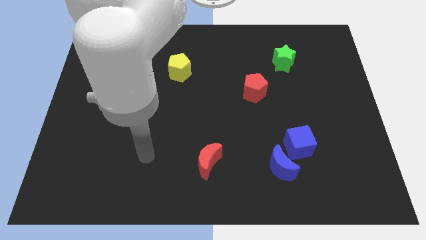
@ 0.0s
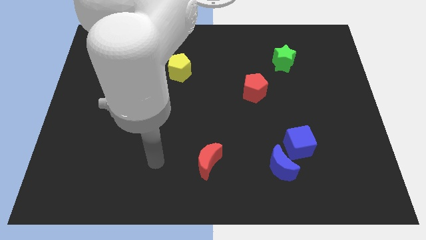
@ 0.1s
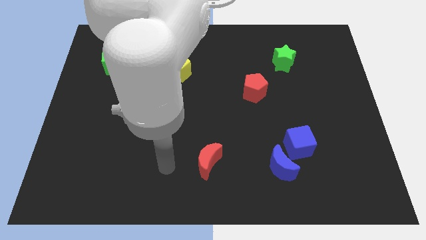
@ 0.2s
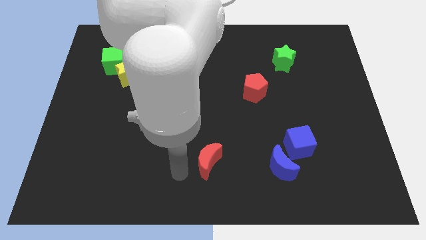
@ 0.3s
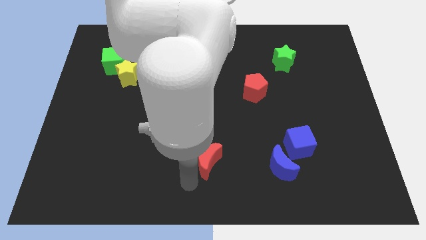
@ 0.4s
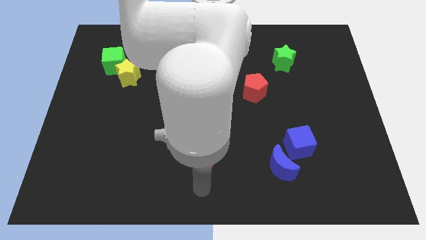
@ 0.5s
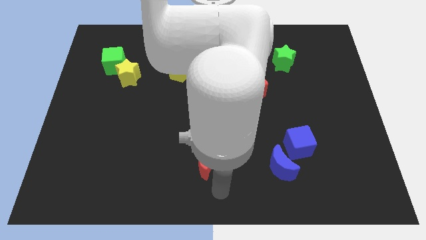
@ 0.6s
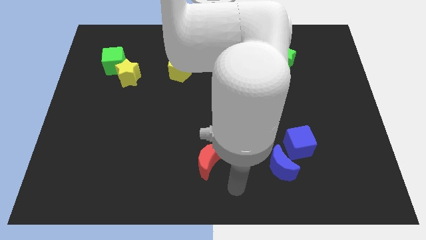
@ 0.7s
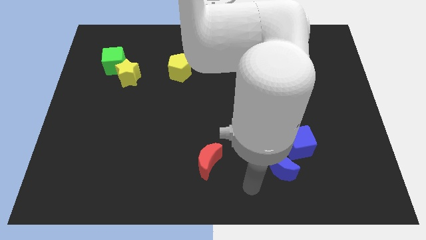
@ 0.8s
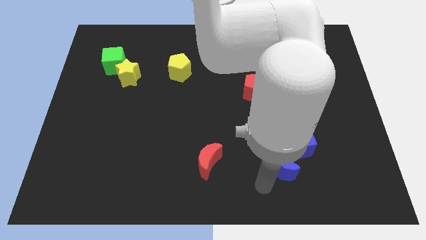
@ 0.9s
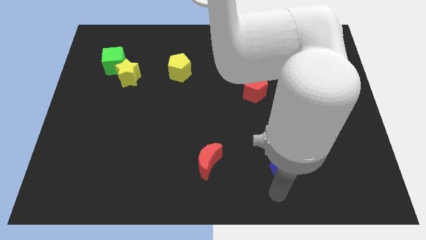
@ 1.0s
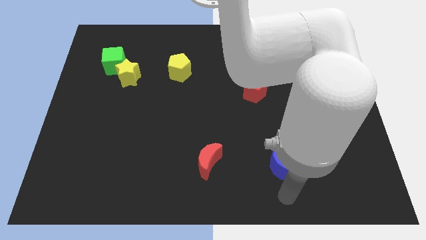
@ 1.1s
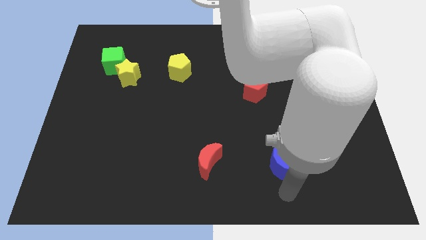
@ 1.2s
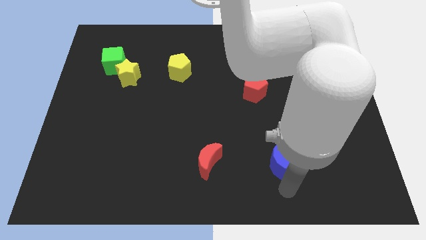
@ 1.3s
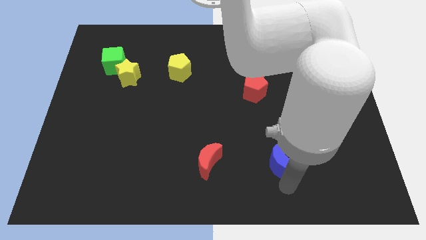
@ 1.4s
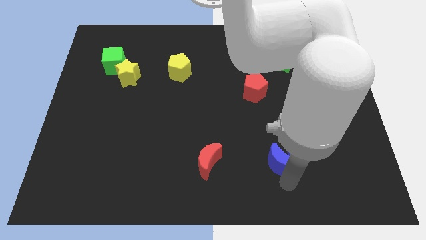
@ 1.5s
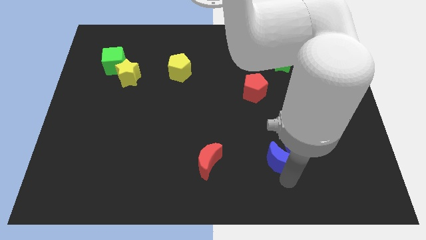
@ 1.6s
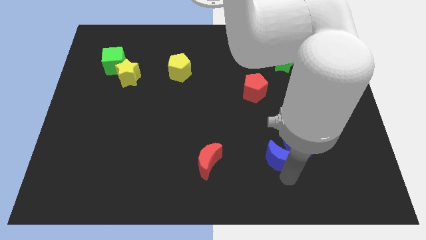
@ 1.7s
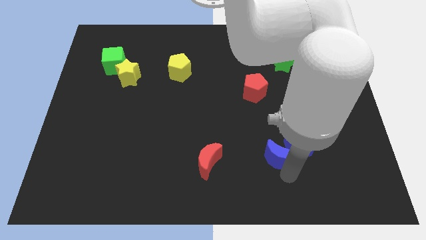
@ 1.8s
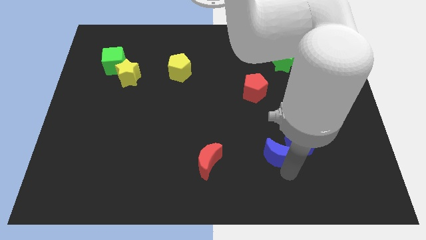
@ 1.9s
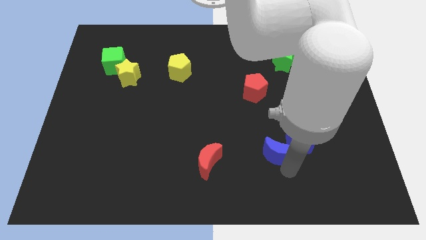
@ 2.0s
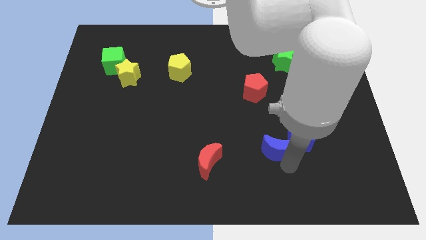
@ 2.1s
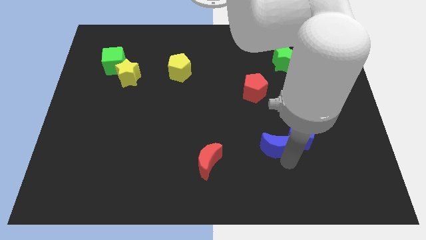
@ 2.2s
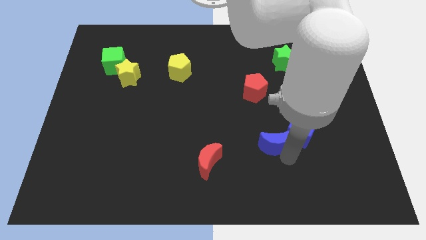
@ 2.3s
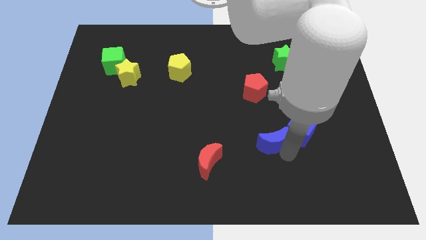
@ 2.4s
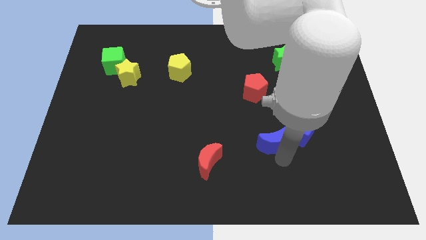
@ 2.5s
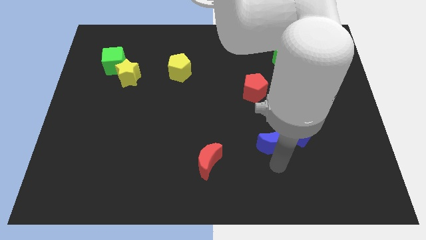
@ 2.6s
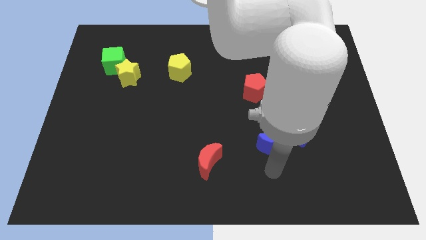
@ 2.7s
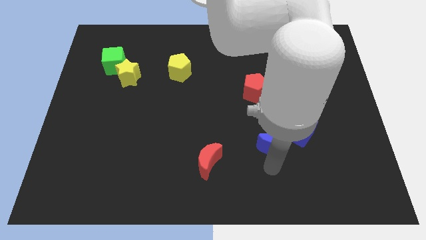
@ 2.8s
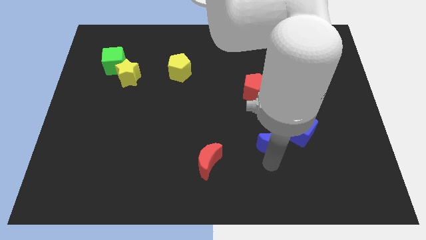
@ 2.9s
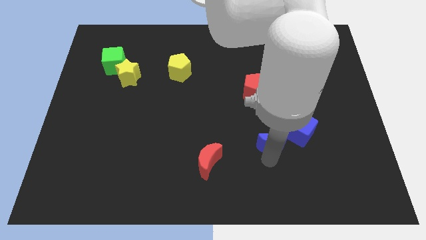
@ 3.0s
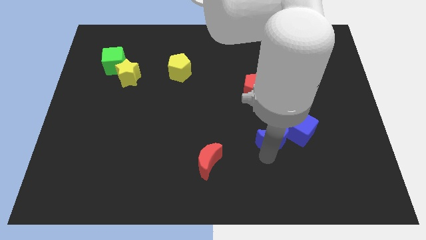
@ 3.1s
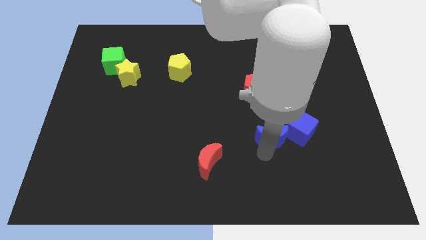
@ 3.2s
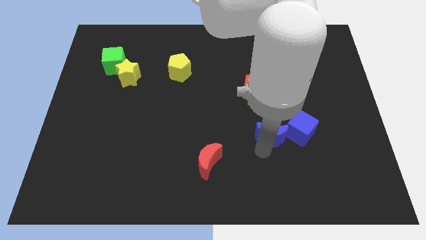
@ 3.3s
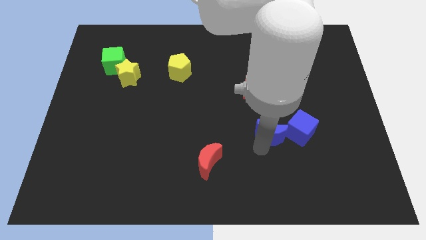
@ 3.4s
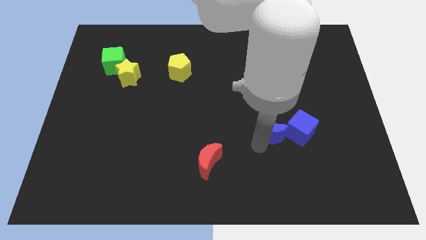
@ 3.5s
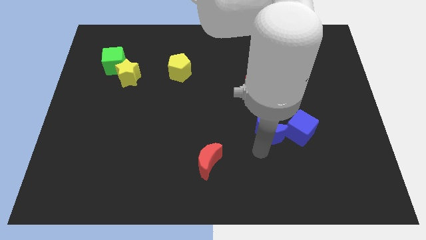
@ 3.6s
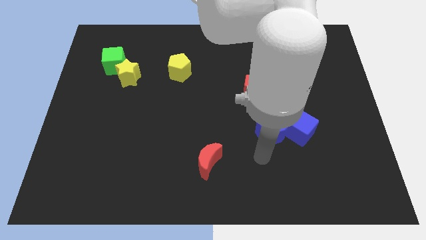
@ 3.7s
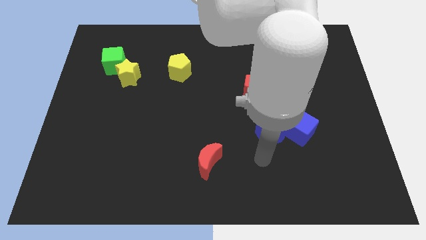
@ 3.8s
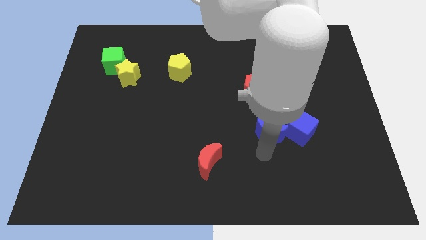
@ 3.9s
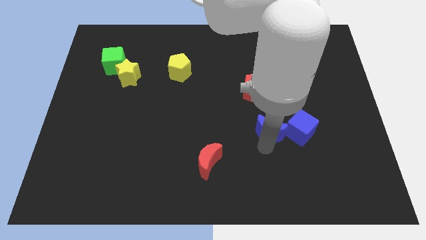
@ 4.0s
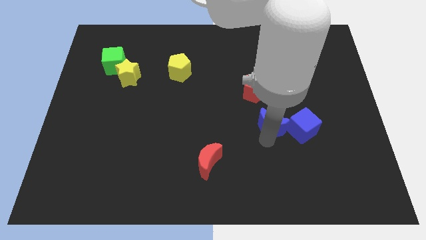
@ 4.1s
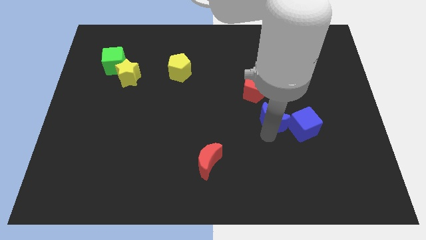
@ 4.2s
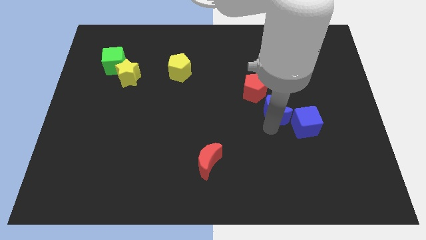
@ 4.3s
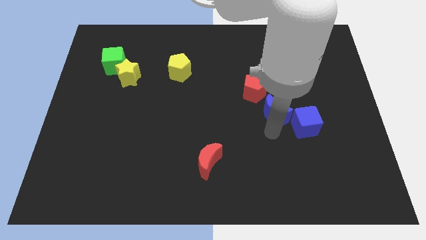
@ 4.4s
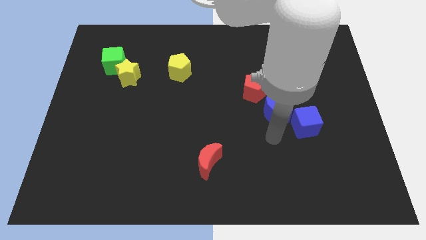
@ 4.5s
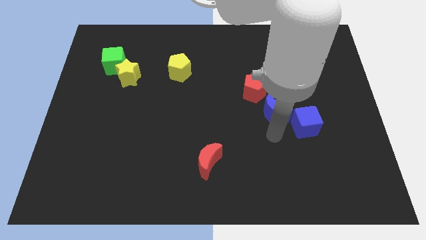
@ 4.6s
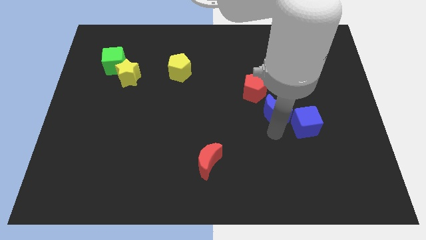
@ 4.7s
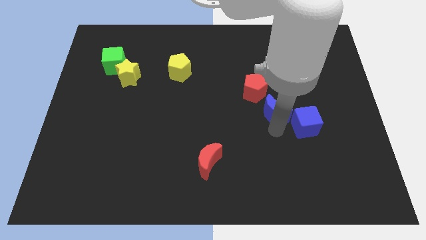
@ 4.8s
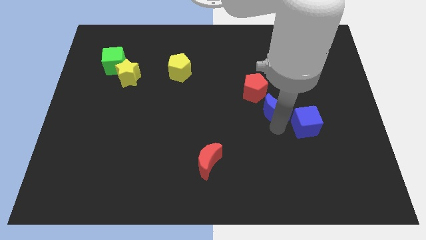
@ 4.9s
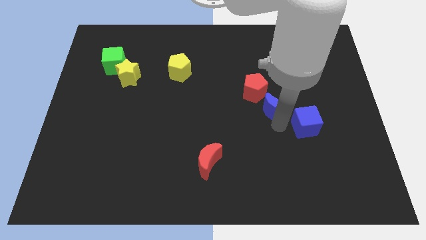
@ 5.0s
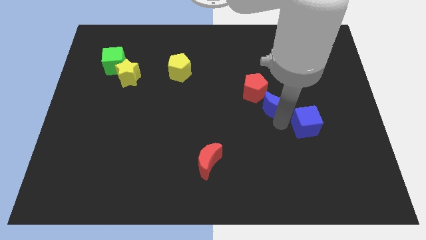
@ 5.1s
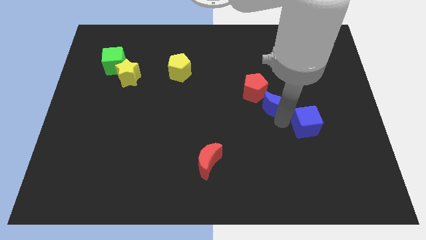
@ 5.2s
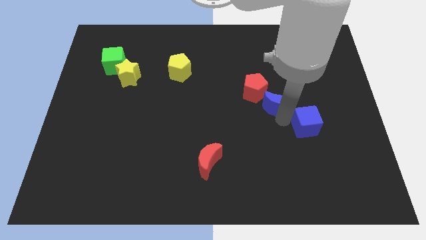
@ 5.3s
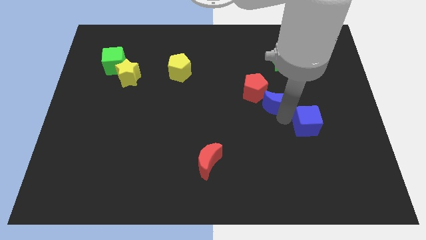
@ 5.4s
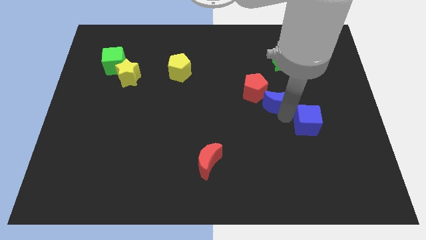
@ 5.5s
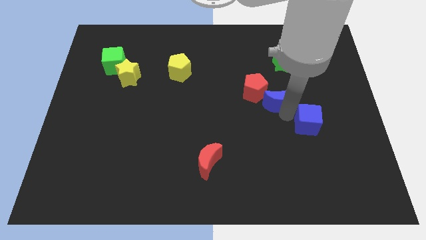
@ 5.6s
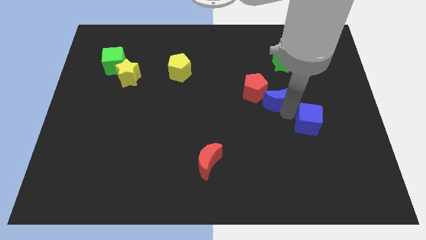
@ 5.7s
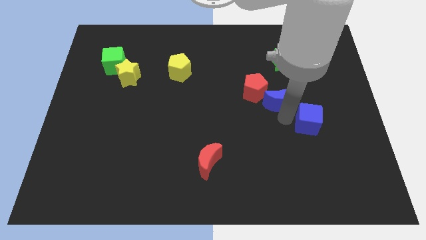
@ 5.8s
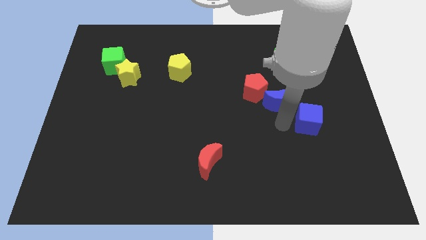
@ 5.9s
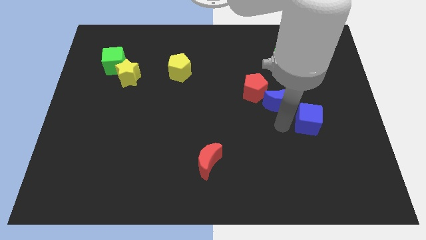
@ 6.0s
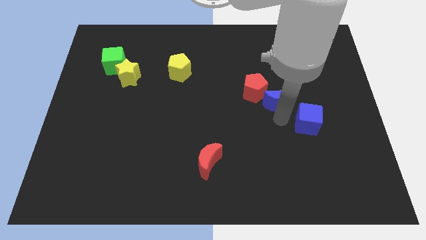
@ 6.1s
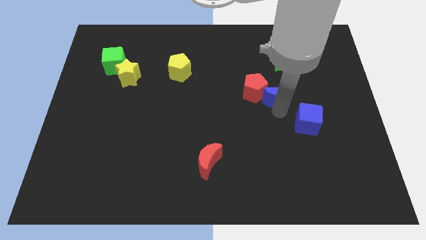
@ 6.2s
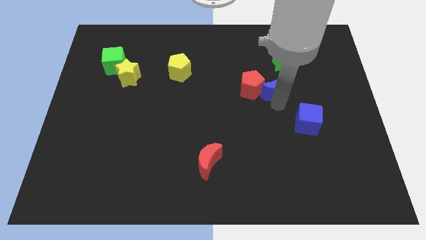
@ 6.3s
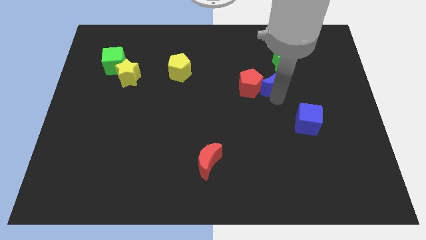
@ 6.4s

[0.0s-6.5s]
push the blue moon to the top right of the red pentagon
